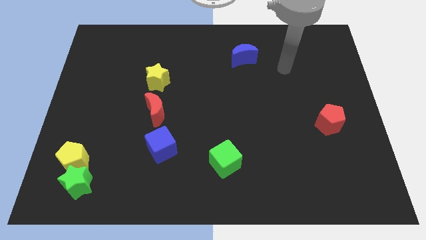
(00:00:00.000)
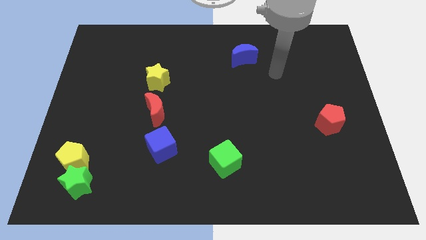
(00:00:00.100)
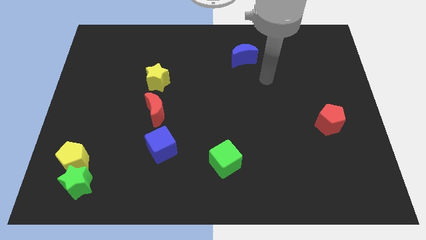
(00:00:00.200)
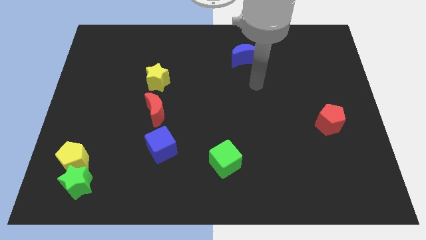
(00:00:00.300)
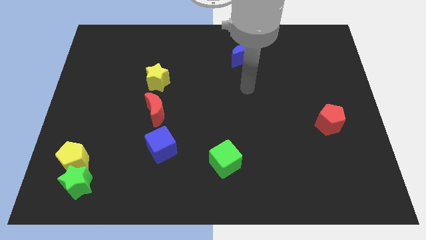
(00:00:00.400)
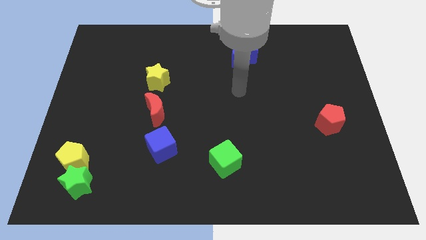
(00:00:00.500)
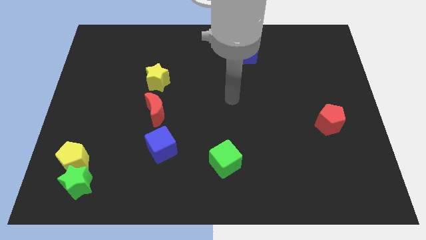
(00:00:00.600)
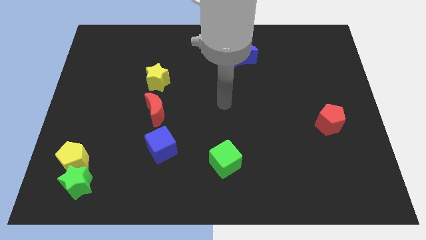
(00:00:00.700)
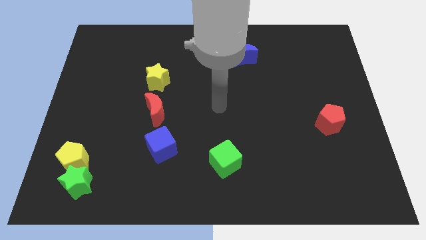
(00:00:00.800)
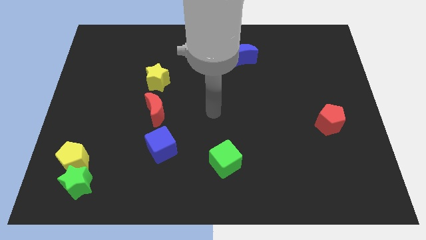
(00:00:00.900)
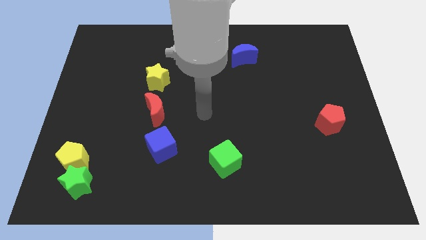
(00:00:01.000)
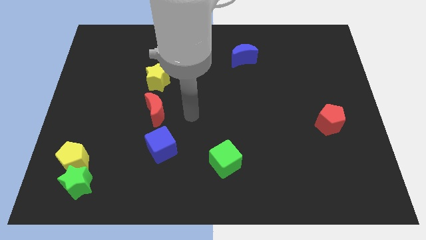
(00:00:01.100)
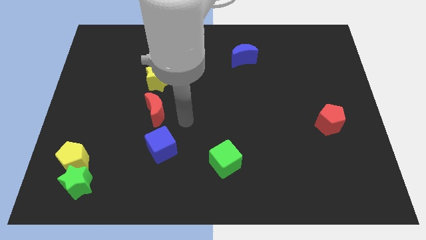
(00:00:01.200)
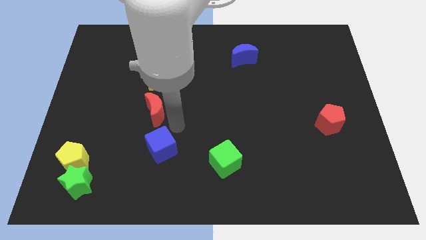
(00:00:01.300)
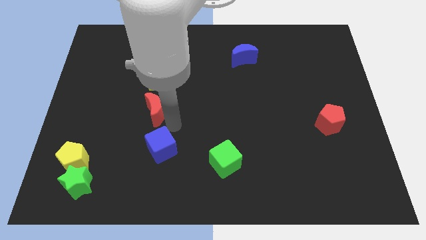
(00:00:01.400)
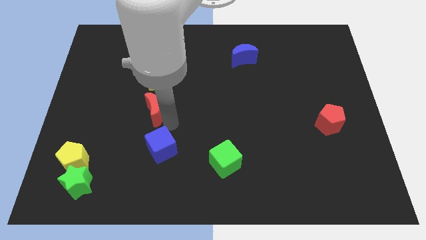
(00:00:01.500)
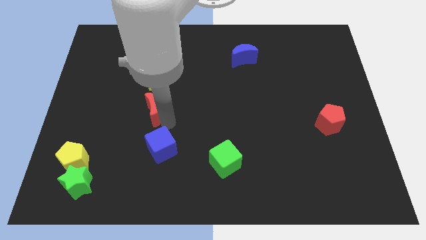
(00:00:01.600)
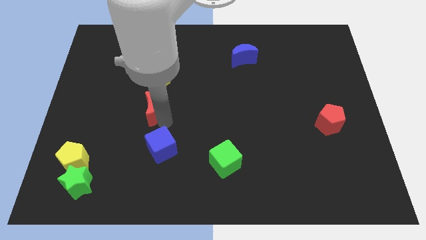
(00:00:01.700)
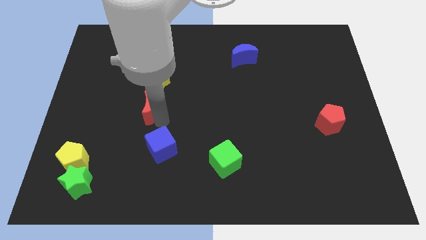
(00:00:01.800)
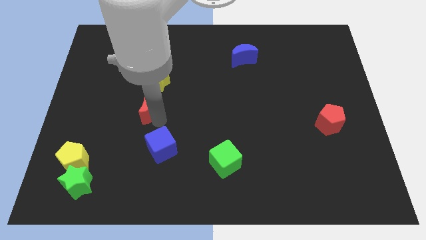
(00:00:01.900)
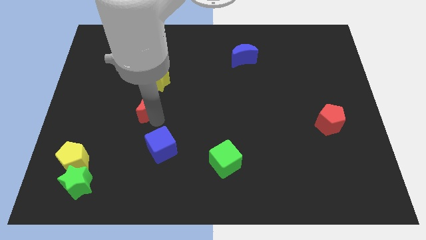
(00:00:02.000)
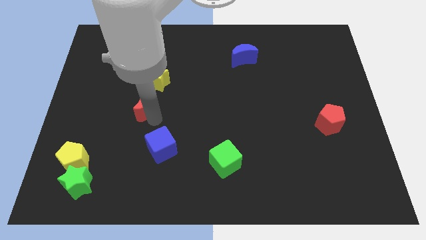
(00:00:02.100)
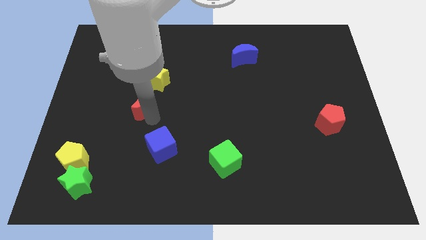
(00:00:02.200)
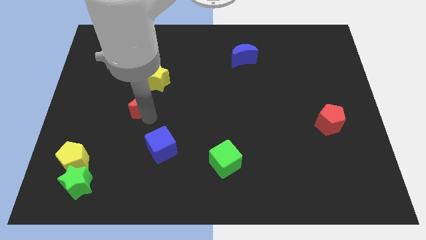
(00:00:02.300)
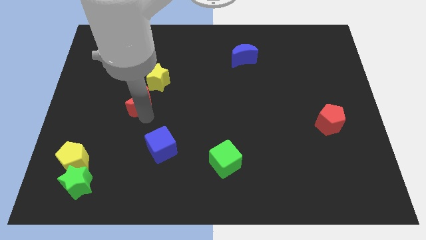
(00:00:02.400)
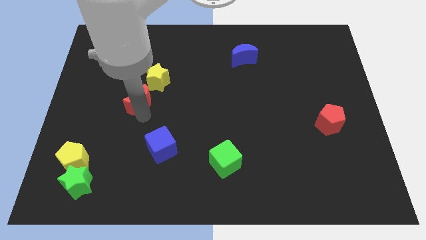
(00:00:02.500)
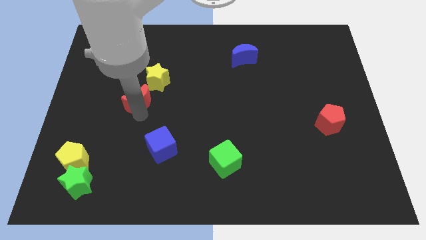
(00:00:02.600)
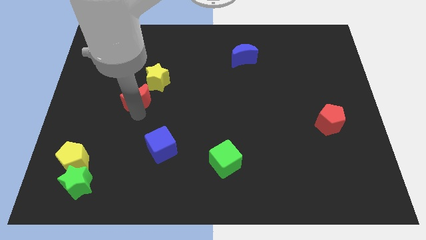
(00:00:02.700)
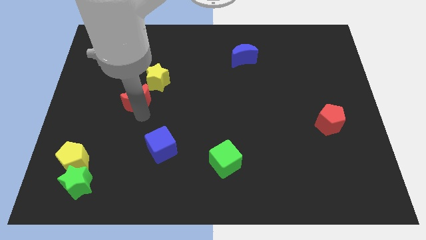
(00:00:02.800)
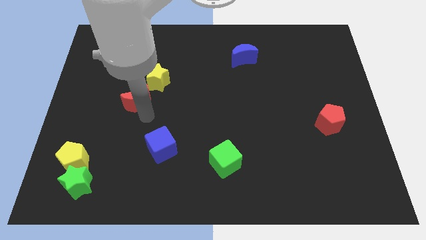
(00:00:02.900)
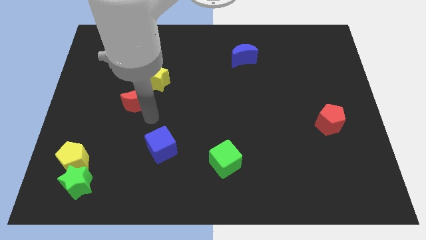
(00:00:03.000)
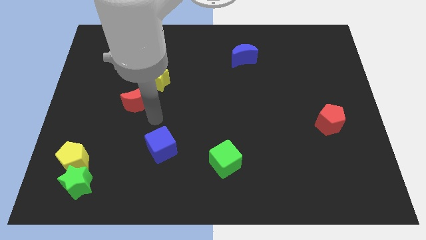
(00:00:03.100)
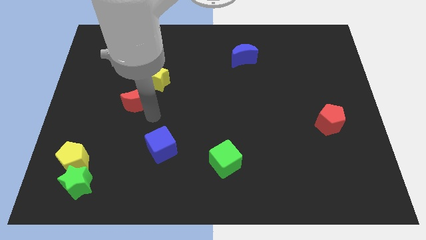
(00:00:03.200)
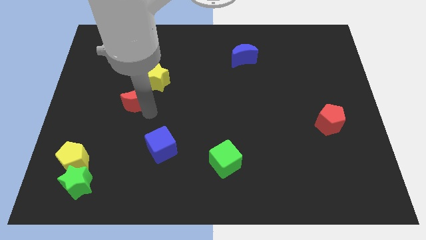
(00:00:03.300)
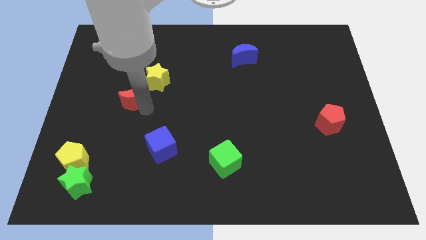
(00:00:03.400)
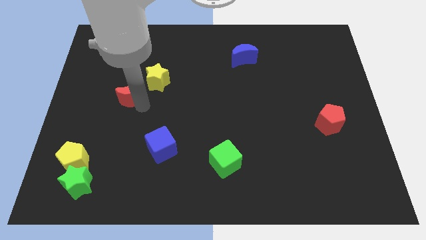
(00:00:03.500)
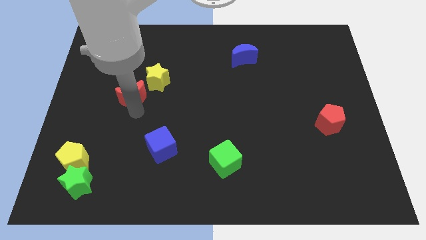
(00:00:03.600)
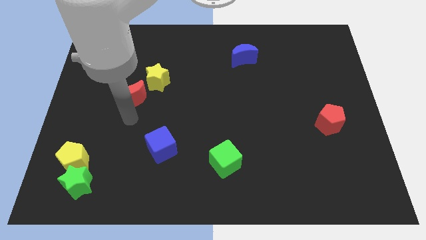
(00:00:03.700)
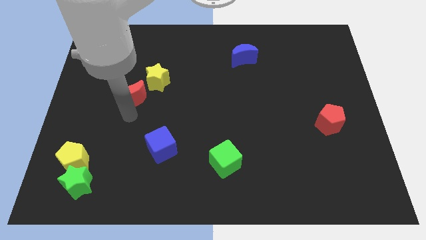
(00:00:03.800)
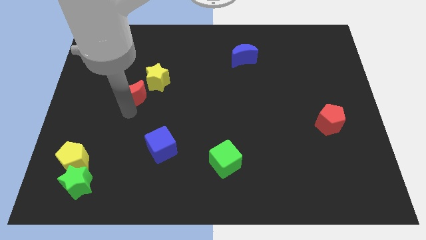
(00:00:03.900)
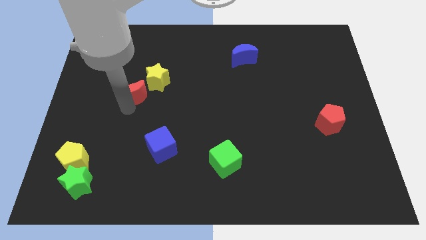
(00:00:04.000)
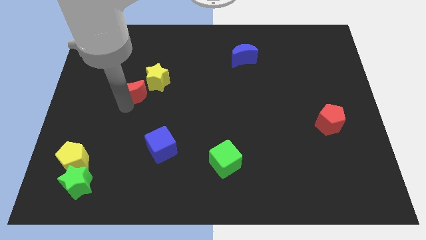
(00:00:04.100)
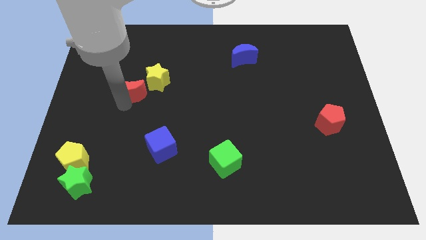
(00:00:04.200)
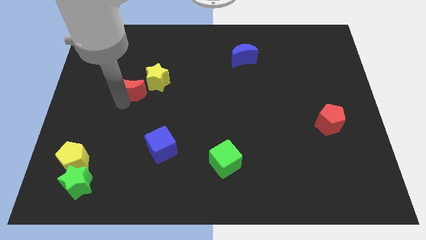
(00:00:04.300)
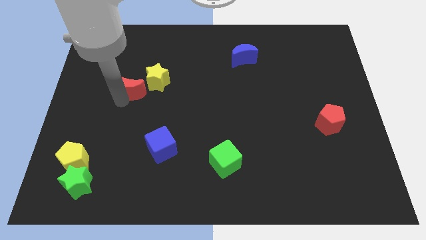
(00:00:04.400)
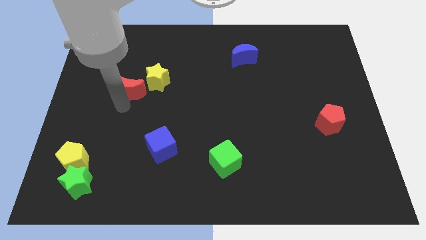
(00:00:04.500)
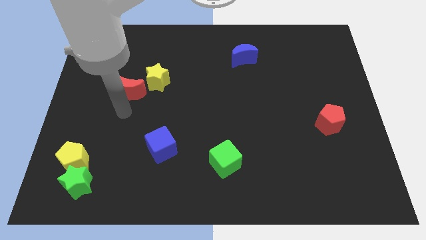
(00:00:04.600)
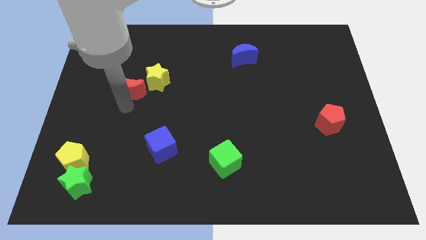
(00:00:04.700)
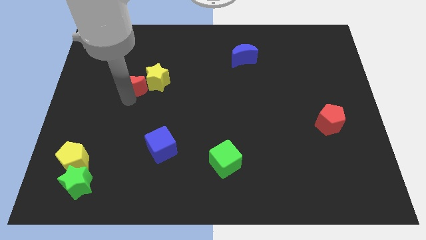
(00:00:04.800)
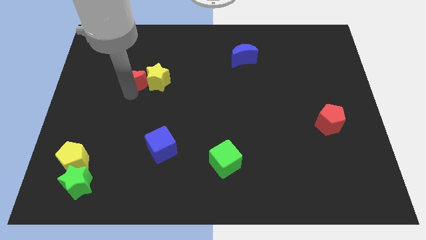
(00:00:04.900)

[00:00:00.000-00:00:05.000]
push the red moon to the top left of the yellow star

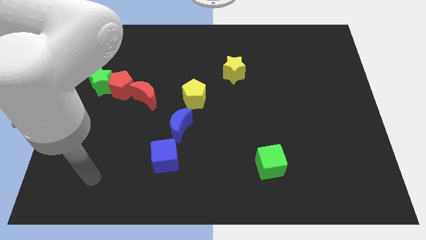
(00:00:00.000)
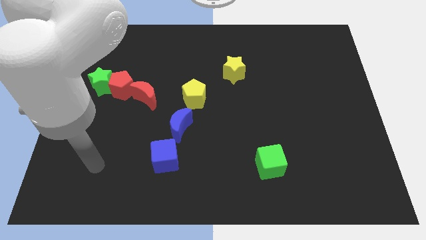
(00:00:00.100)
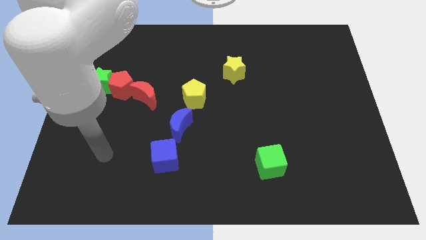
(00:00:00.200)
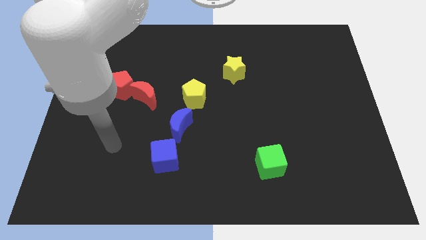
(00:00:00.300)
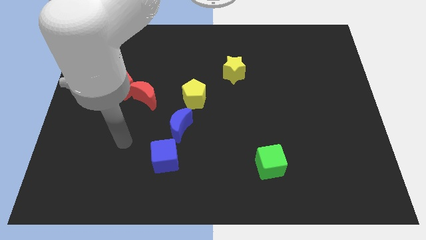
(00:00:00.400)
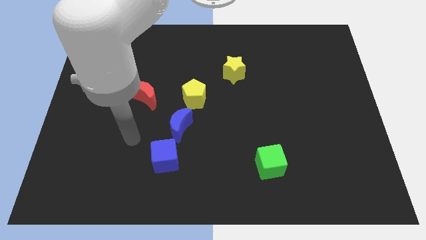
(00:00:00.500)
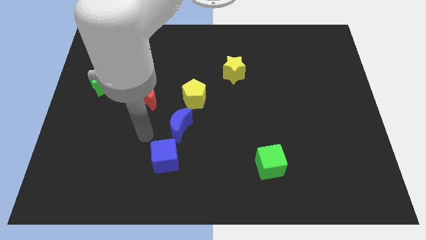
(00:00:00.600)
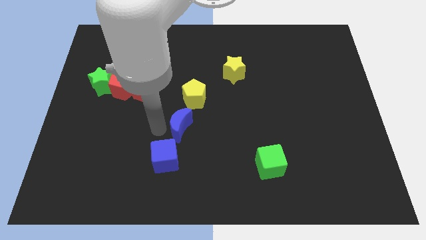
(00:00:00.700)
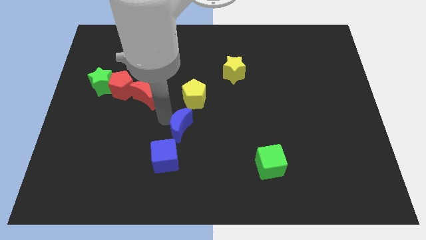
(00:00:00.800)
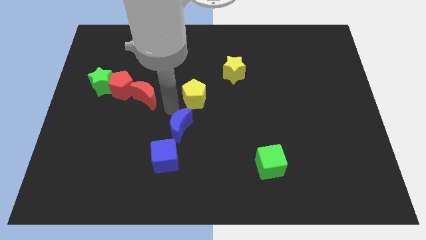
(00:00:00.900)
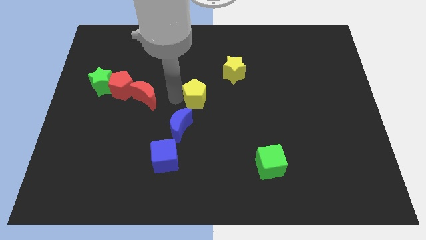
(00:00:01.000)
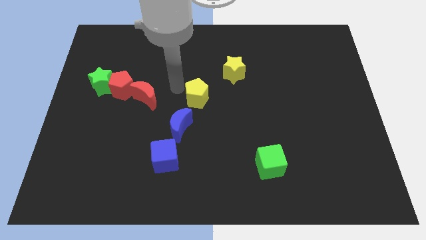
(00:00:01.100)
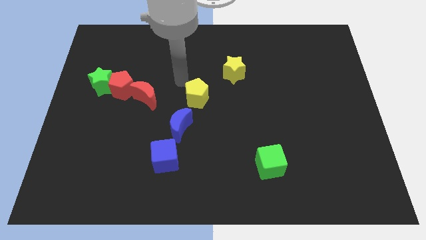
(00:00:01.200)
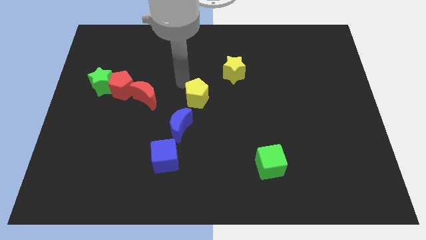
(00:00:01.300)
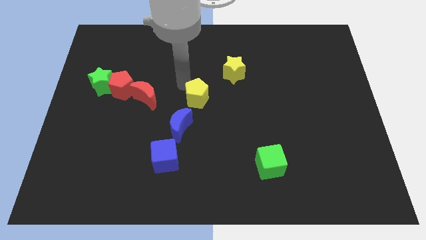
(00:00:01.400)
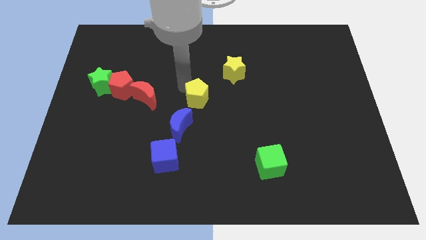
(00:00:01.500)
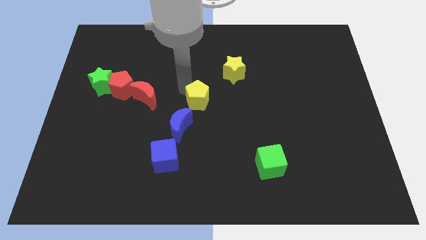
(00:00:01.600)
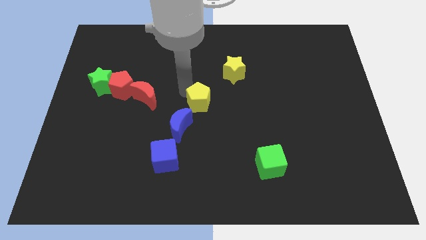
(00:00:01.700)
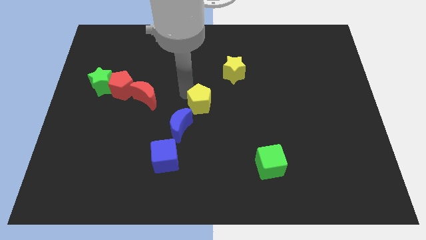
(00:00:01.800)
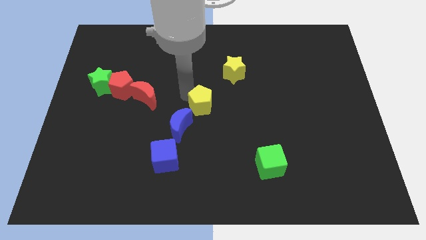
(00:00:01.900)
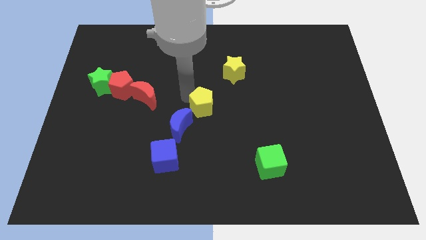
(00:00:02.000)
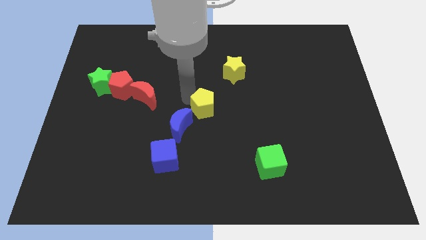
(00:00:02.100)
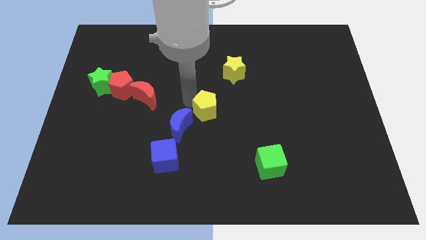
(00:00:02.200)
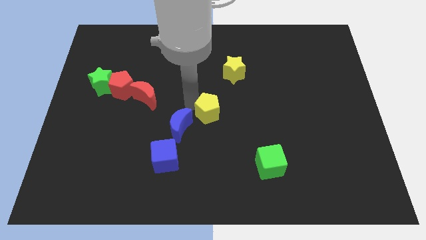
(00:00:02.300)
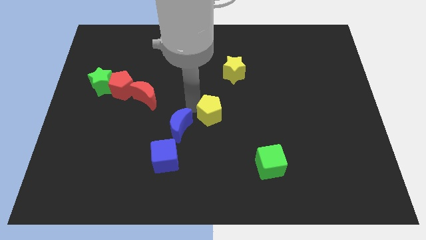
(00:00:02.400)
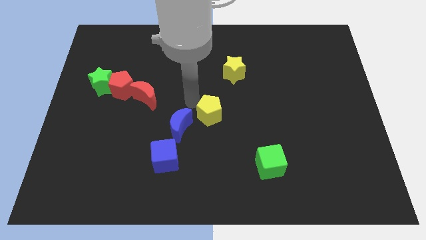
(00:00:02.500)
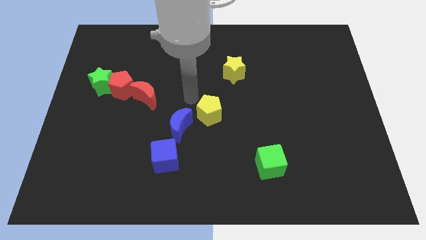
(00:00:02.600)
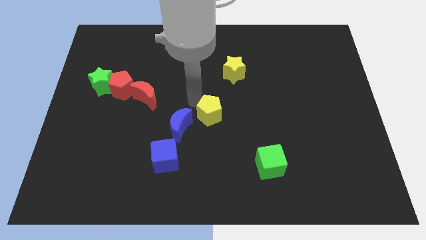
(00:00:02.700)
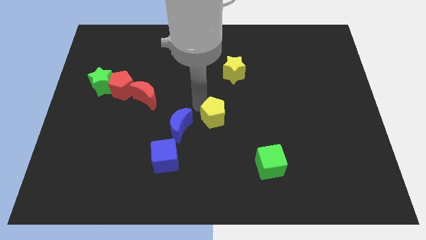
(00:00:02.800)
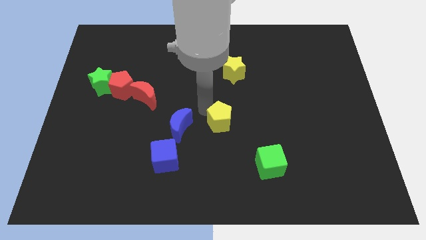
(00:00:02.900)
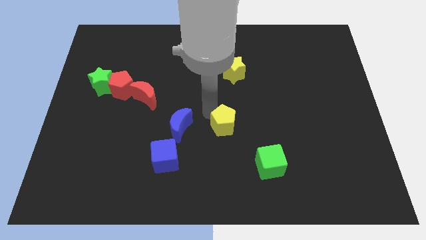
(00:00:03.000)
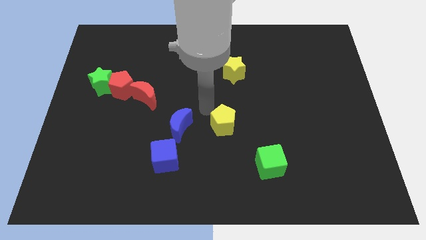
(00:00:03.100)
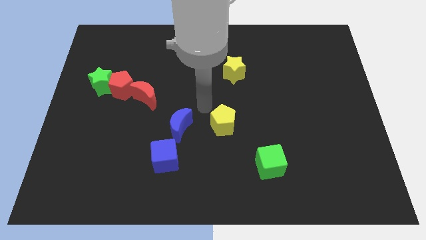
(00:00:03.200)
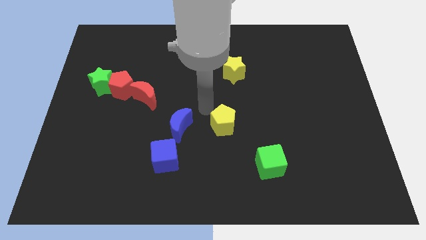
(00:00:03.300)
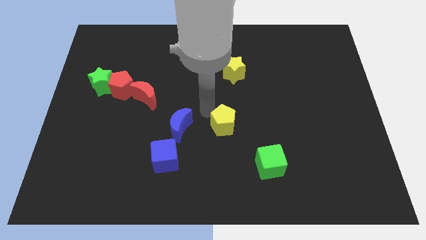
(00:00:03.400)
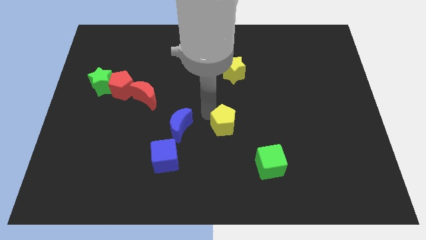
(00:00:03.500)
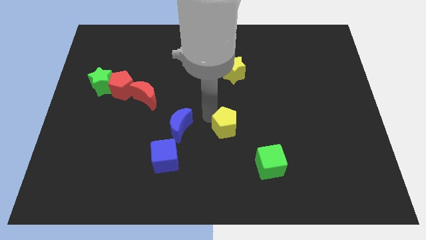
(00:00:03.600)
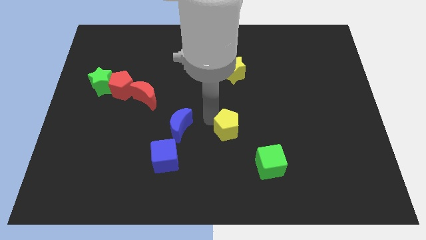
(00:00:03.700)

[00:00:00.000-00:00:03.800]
move the yellow pentagon to the top left of the green cube
